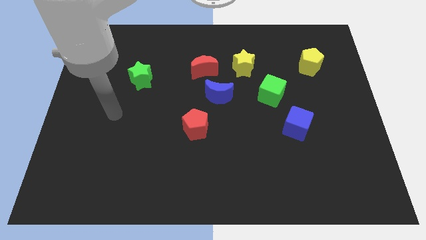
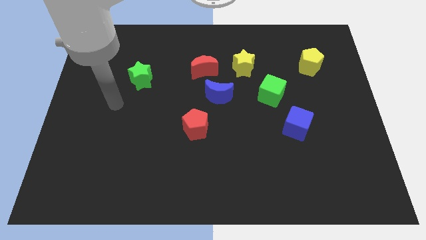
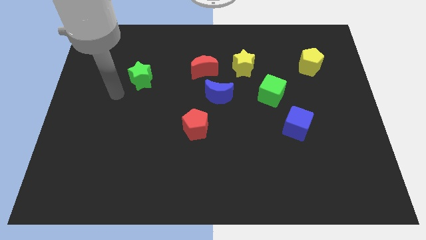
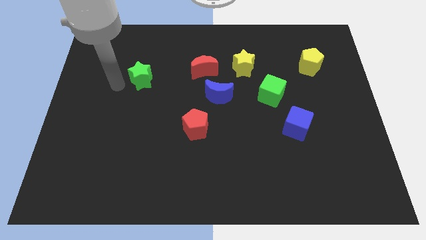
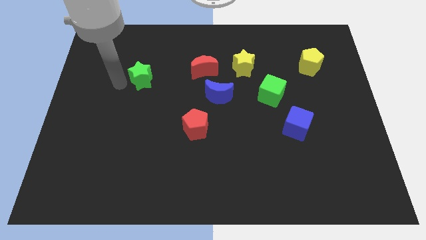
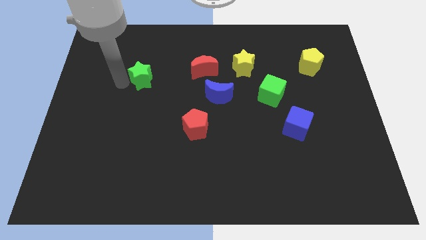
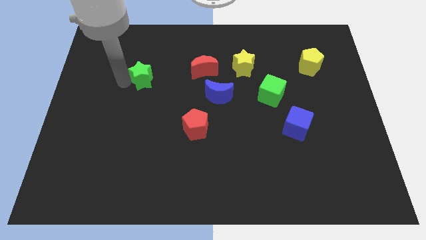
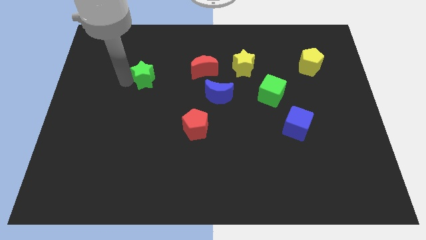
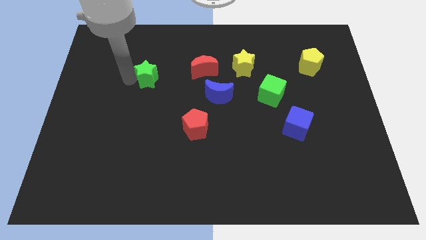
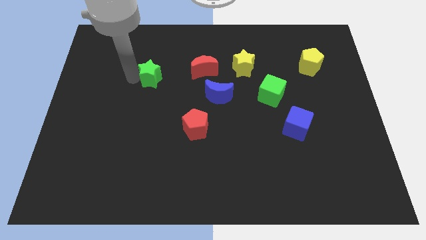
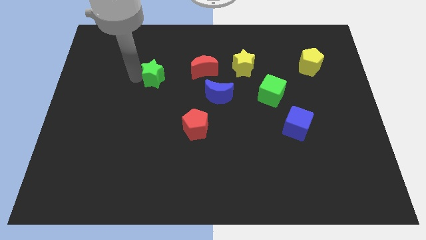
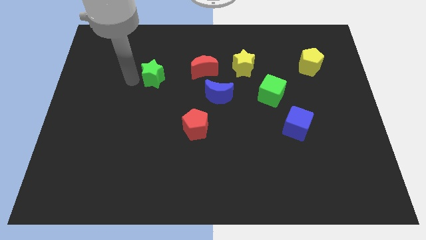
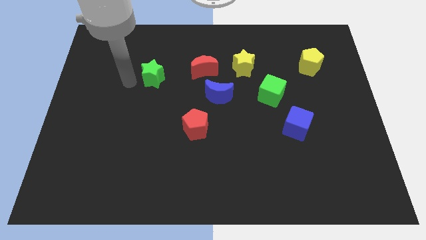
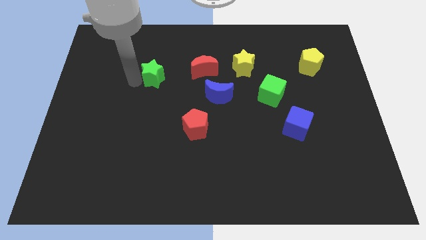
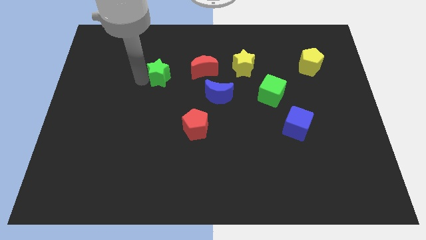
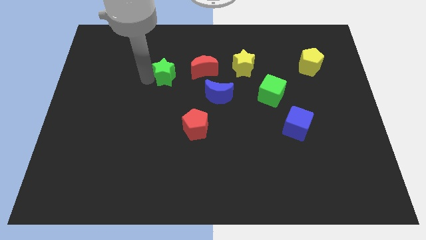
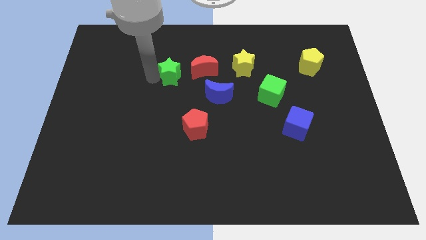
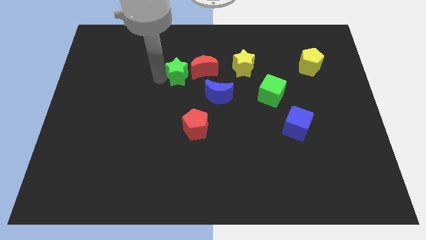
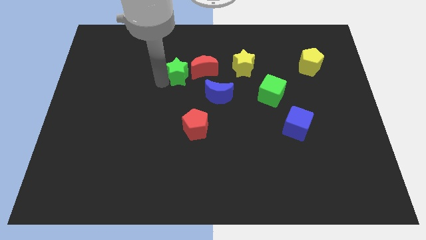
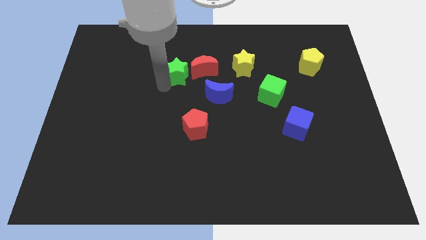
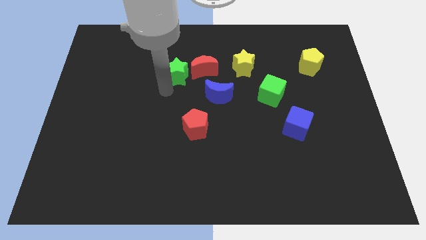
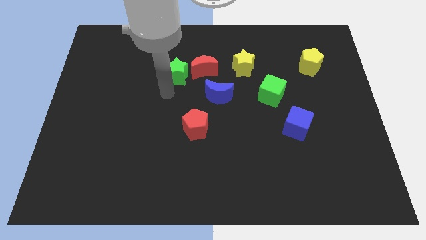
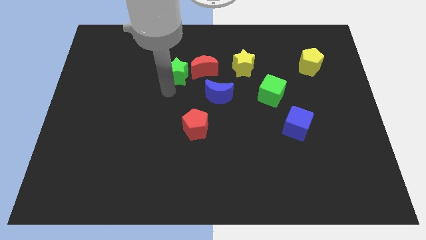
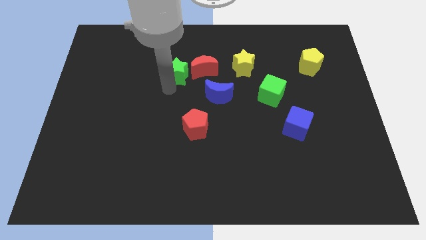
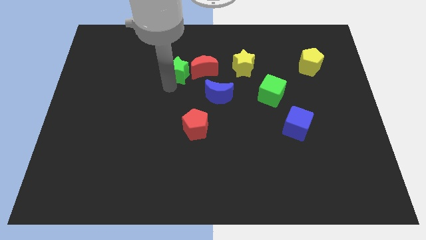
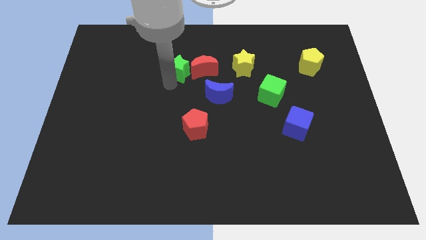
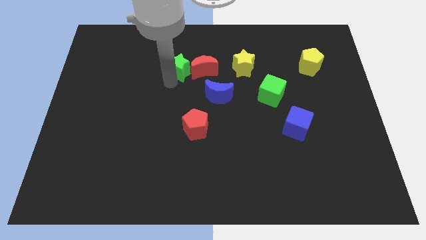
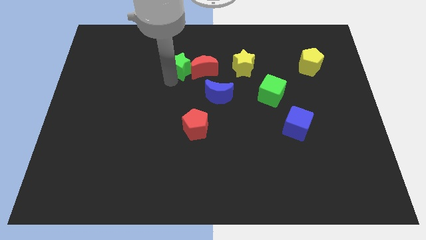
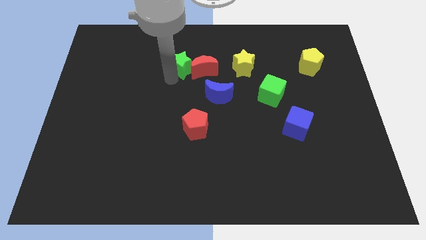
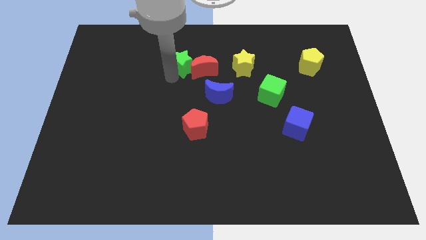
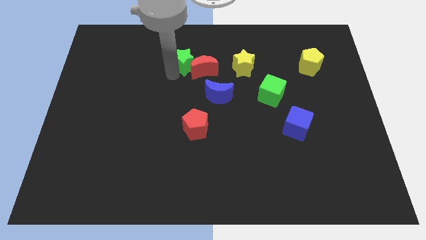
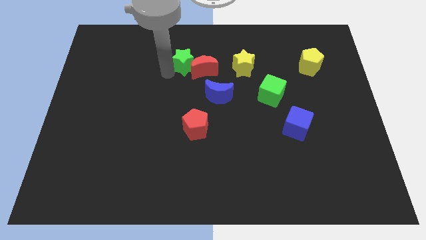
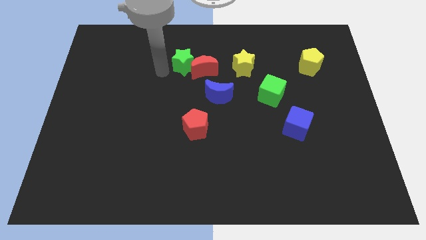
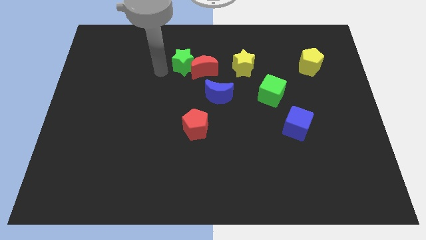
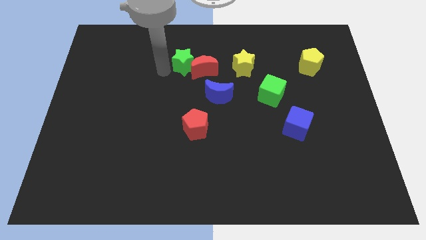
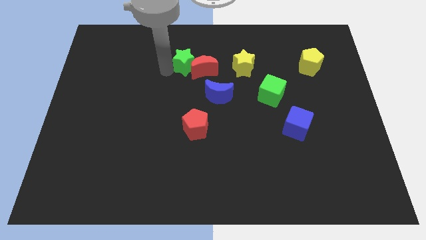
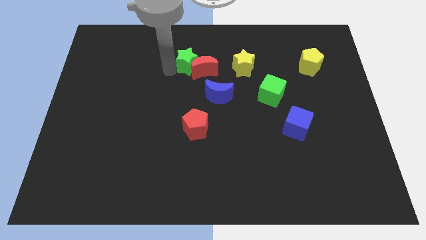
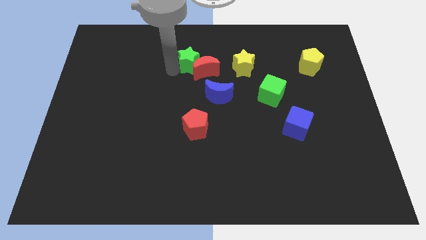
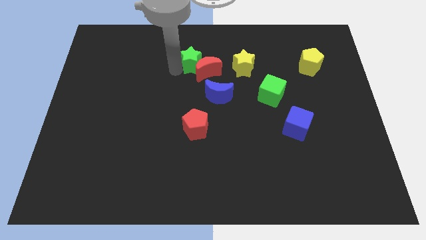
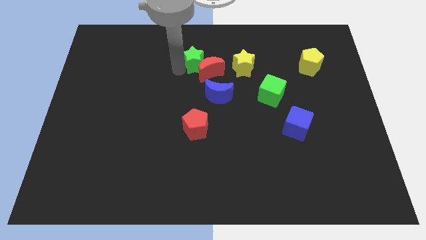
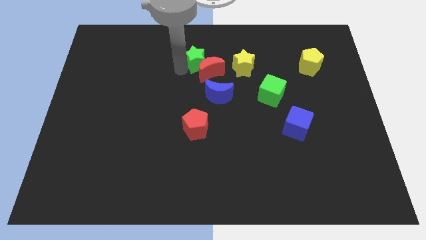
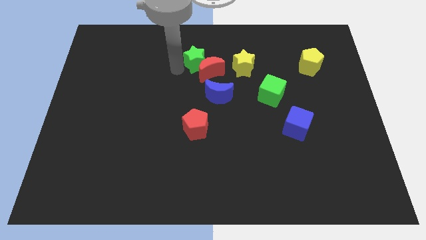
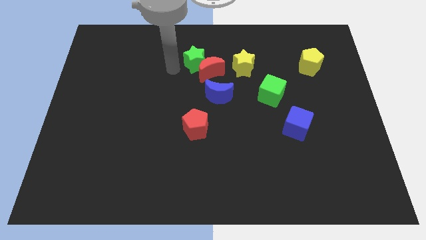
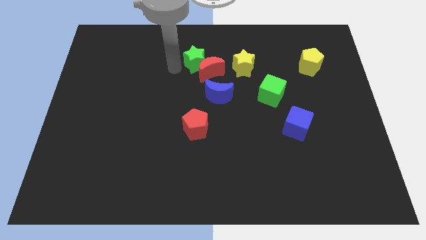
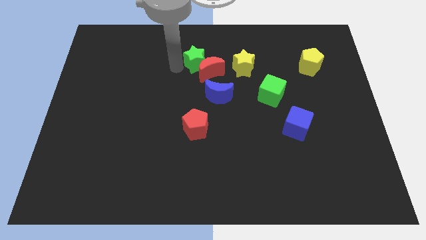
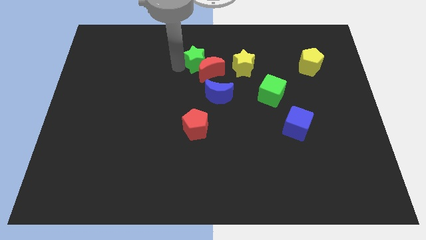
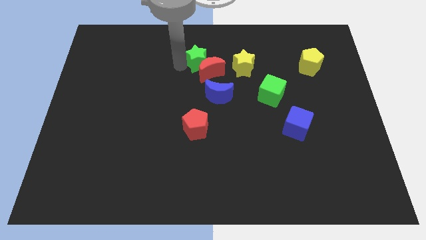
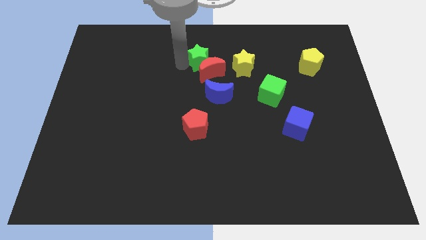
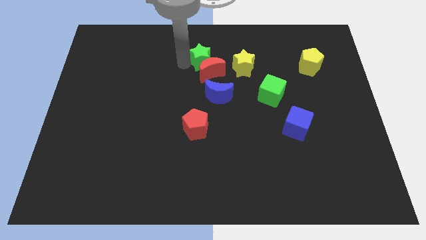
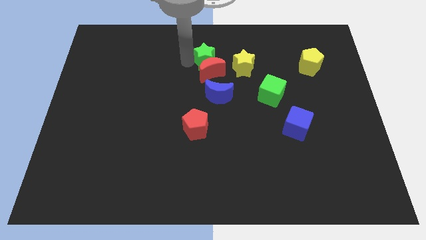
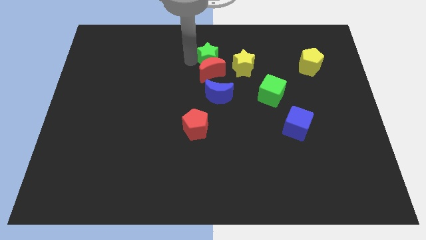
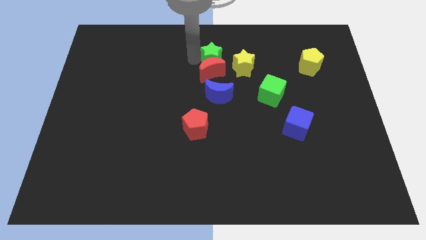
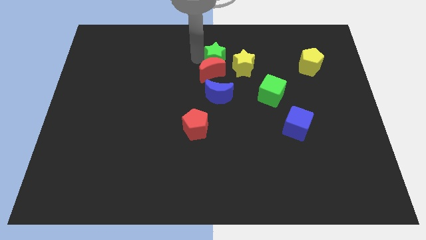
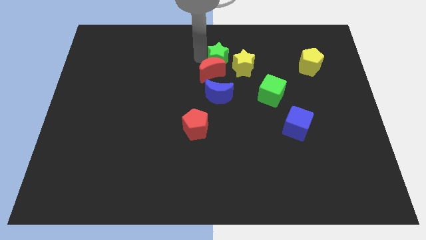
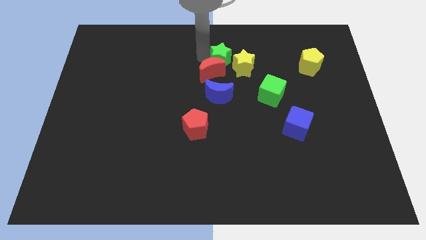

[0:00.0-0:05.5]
slide the green star next to the yellow star

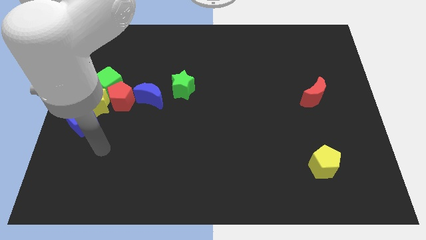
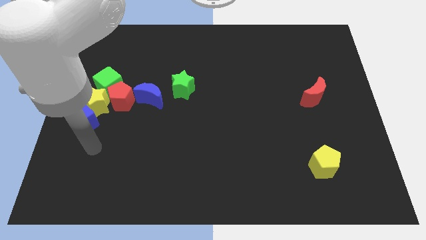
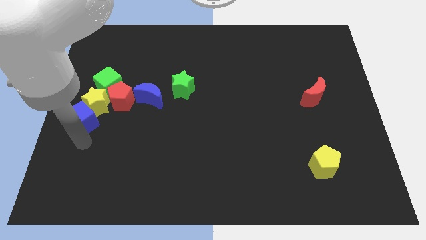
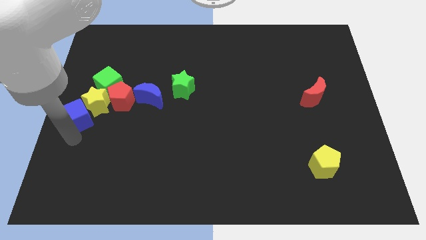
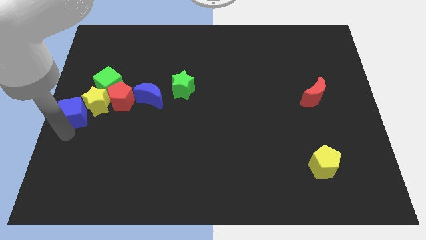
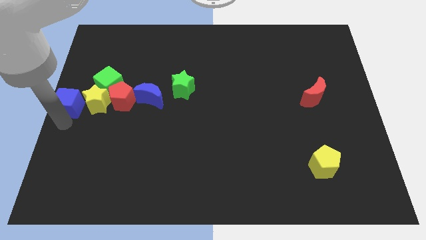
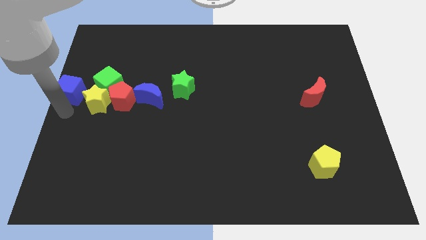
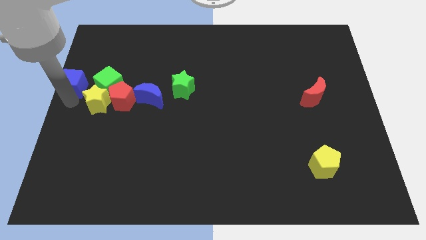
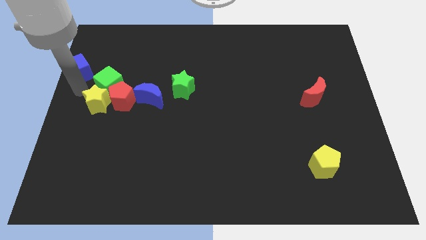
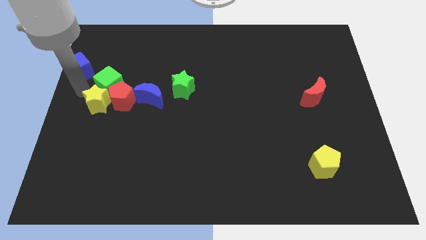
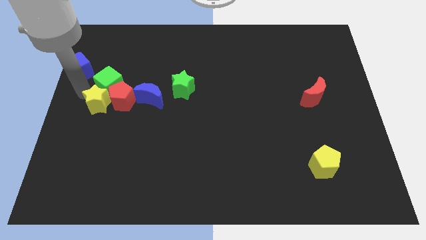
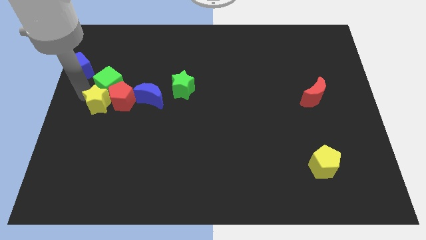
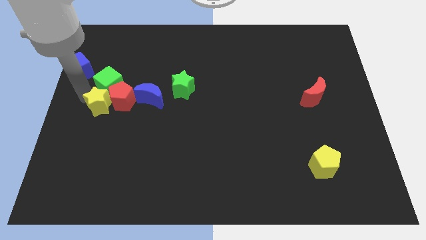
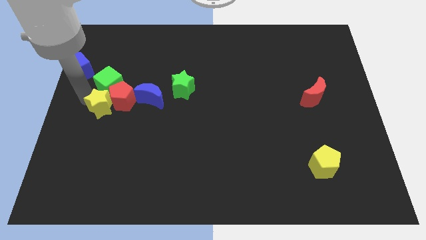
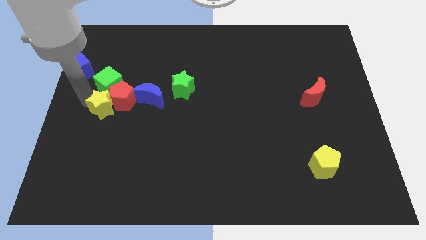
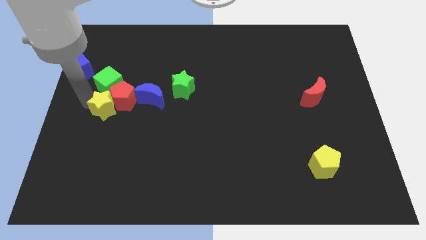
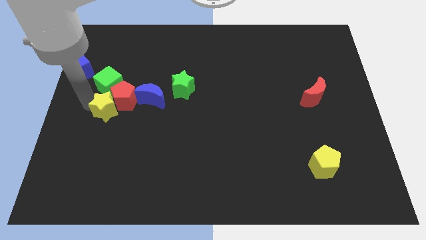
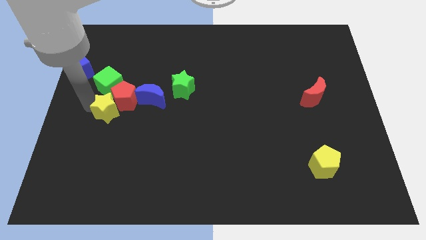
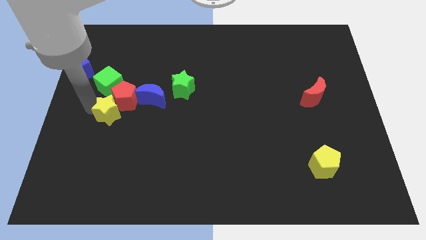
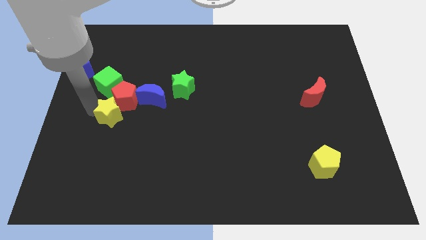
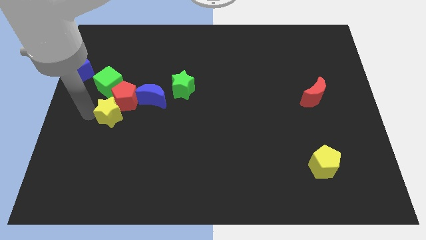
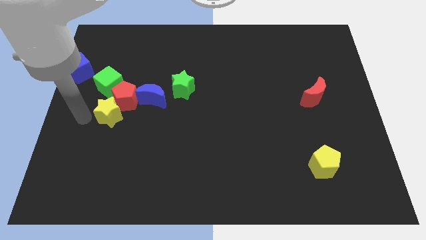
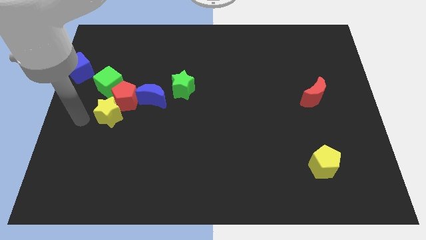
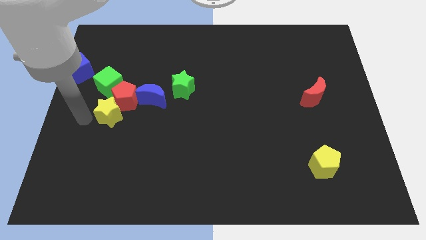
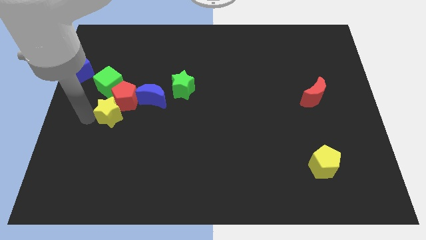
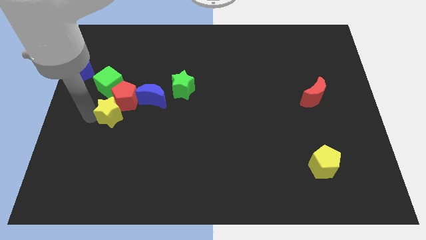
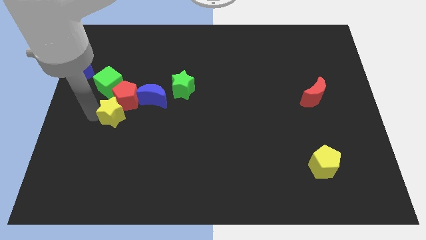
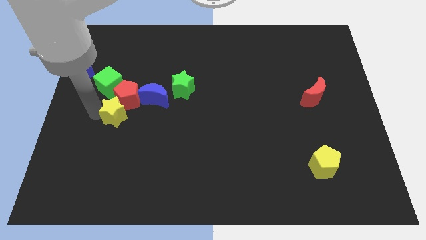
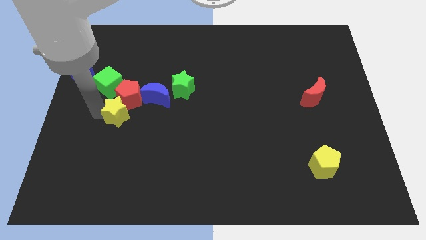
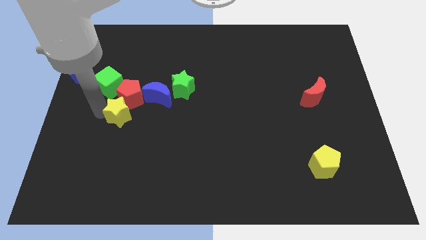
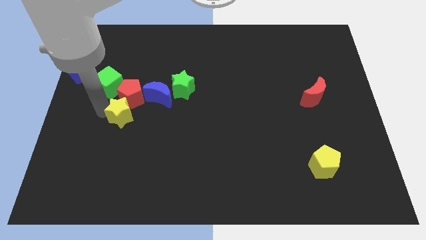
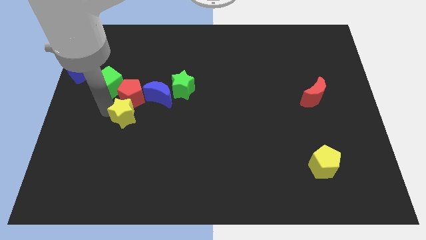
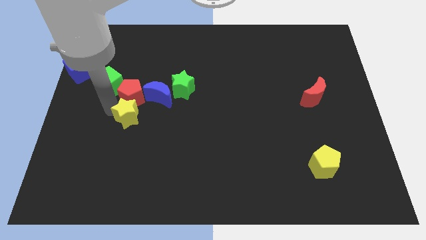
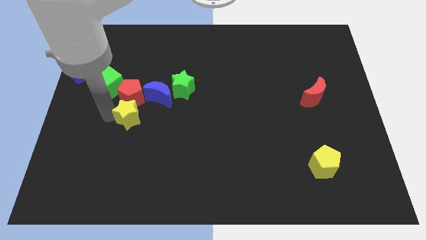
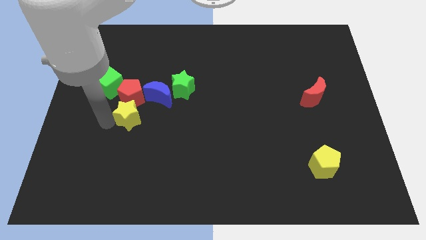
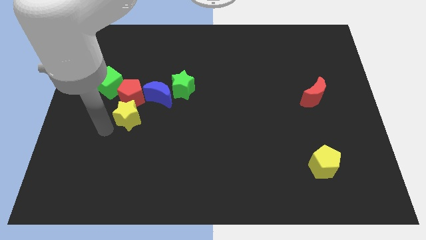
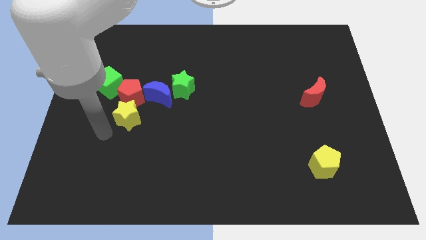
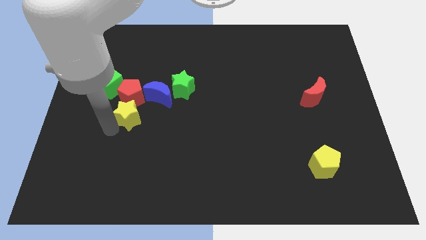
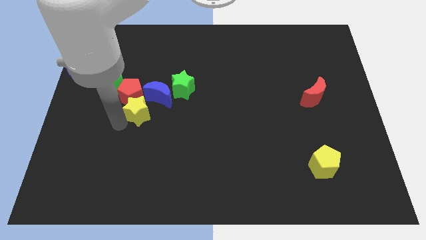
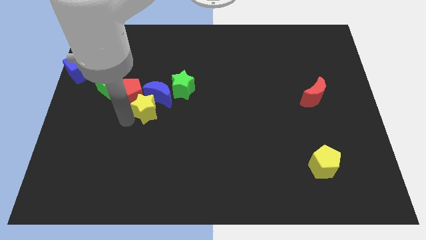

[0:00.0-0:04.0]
put the yellow star to the blue moon
